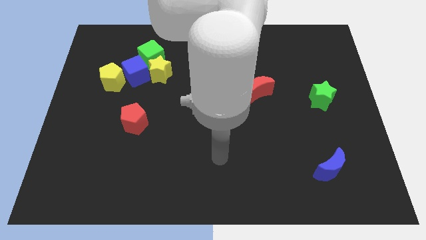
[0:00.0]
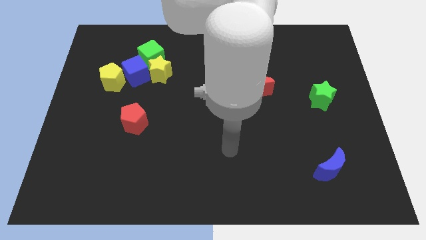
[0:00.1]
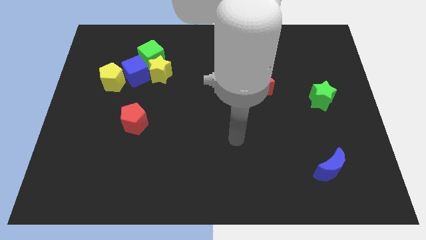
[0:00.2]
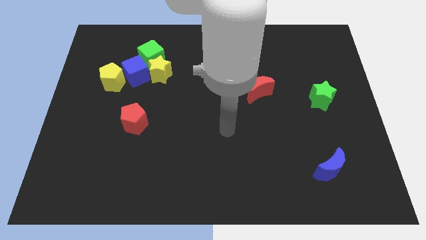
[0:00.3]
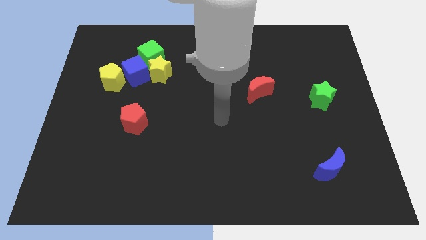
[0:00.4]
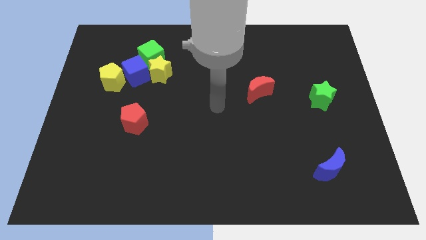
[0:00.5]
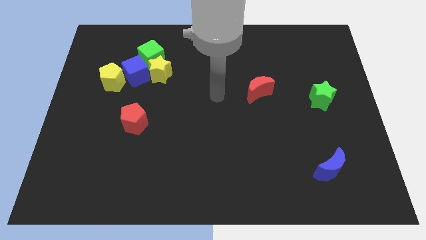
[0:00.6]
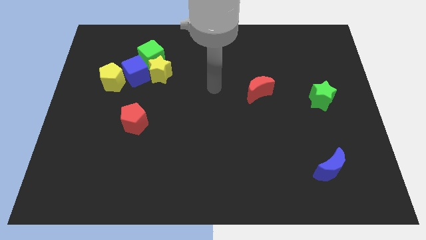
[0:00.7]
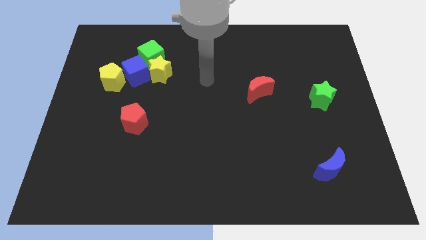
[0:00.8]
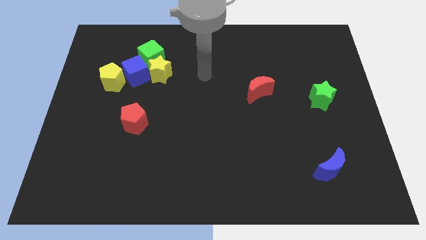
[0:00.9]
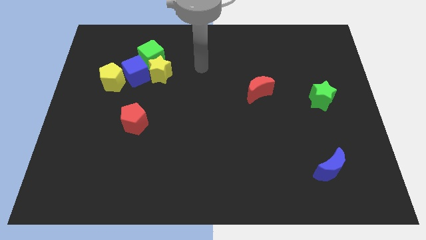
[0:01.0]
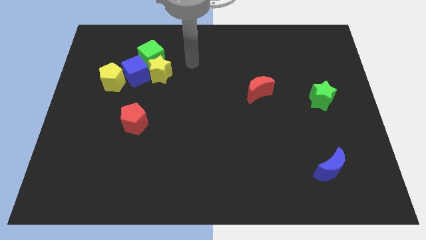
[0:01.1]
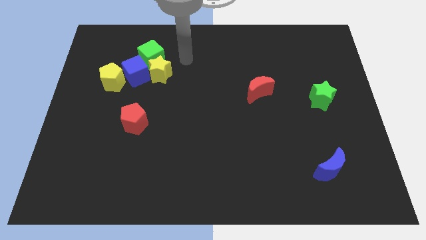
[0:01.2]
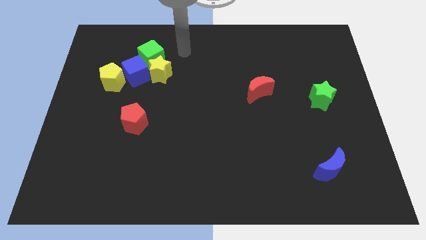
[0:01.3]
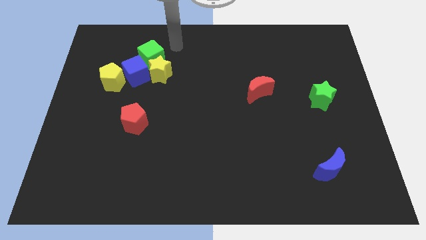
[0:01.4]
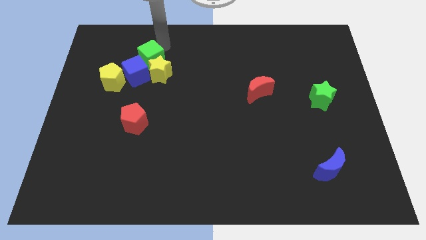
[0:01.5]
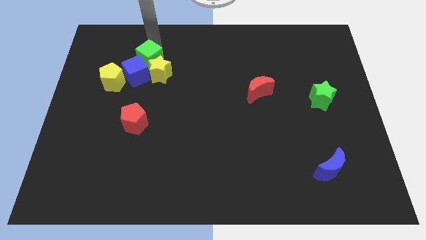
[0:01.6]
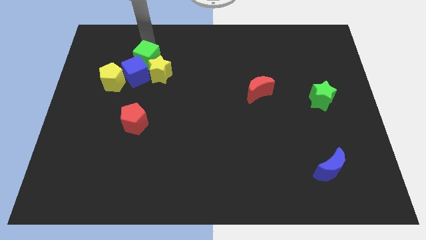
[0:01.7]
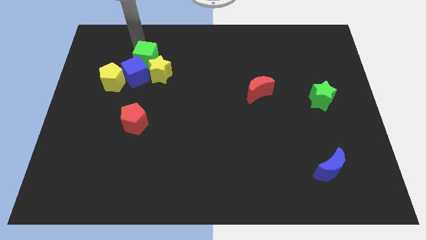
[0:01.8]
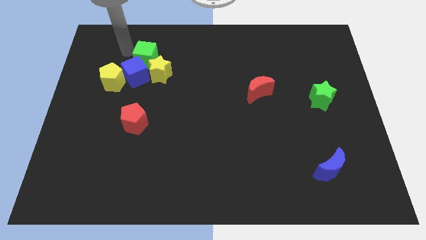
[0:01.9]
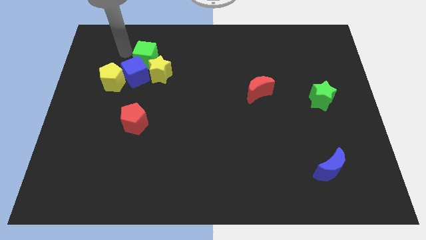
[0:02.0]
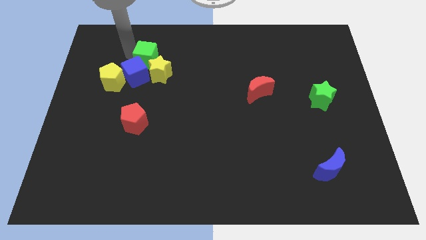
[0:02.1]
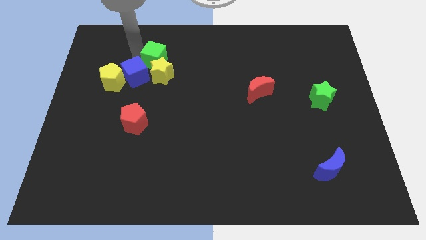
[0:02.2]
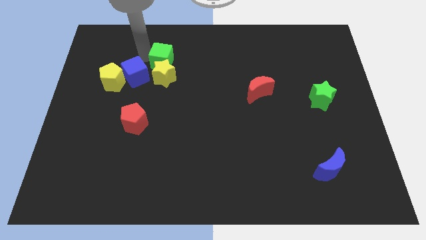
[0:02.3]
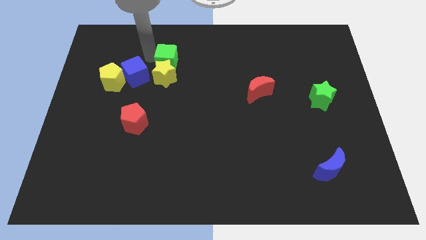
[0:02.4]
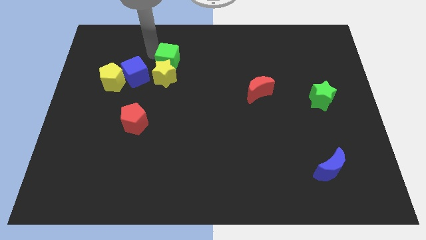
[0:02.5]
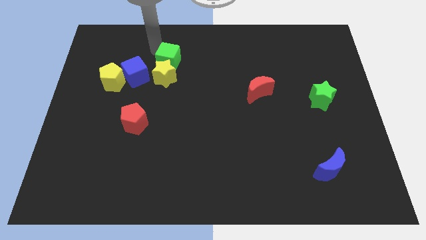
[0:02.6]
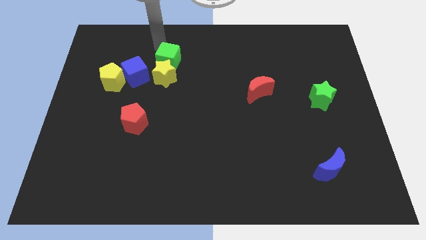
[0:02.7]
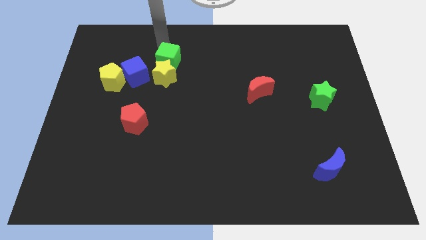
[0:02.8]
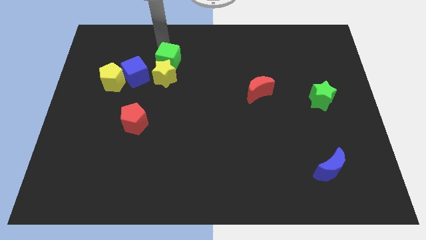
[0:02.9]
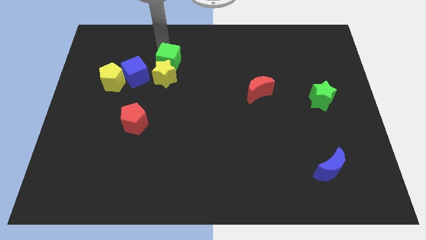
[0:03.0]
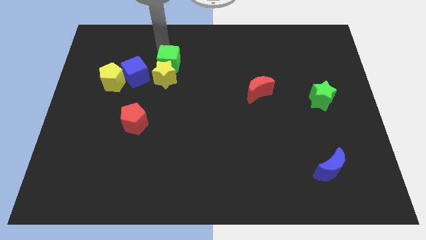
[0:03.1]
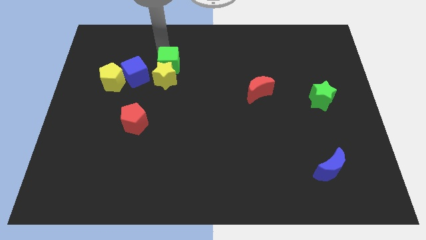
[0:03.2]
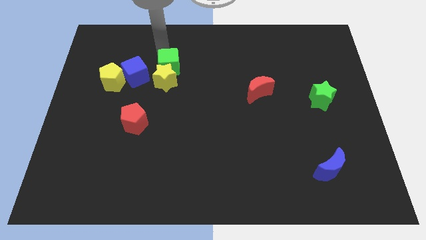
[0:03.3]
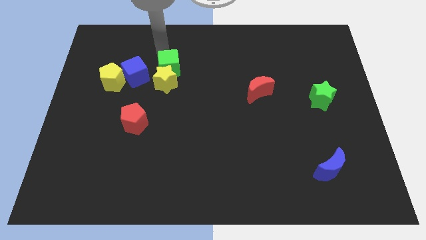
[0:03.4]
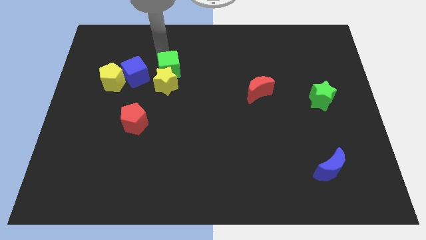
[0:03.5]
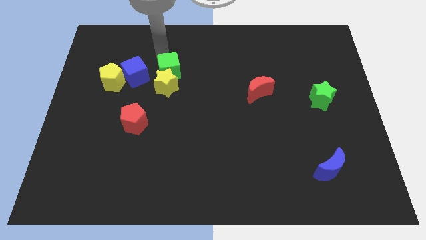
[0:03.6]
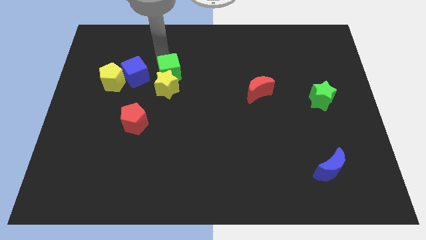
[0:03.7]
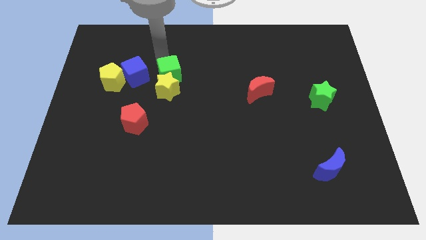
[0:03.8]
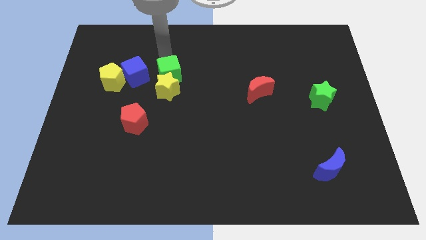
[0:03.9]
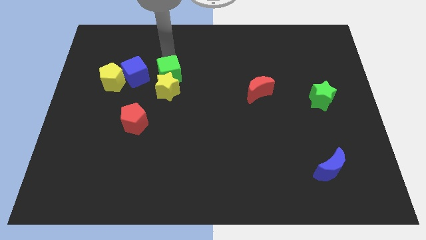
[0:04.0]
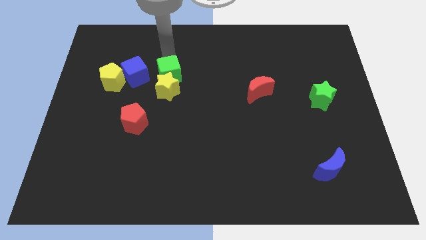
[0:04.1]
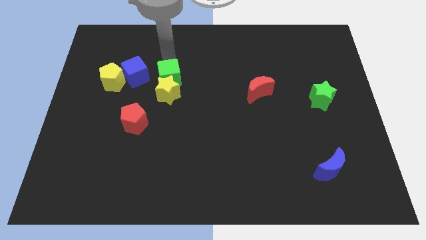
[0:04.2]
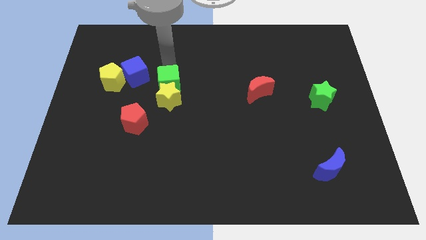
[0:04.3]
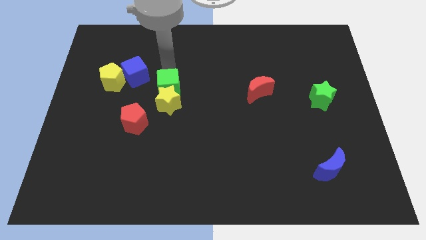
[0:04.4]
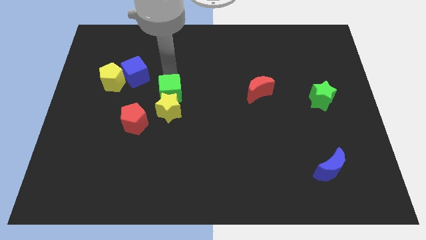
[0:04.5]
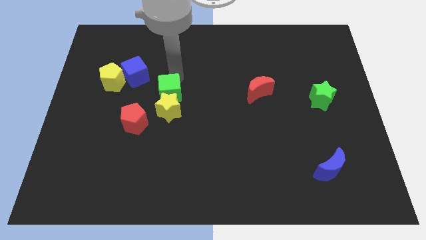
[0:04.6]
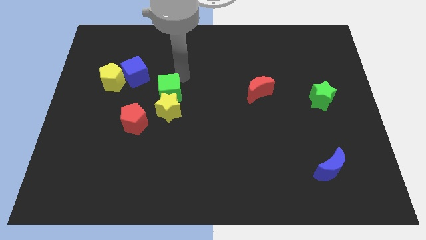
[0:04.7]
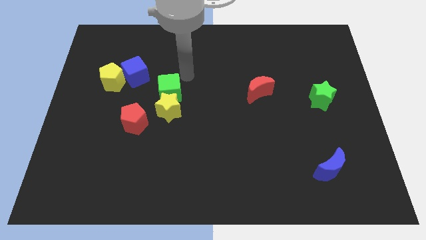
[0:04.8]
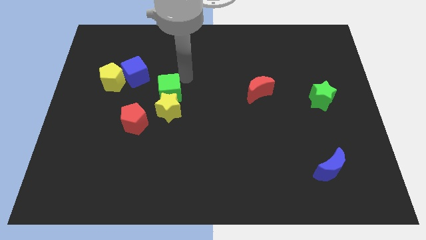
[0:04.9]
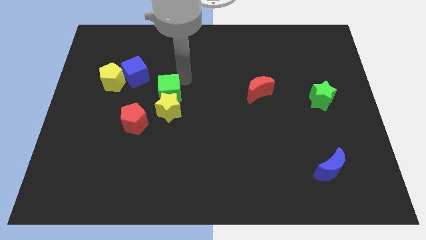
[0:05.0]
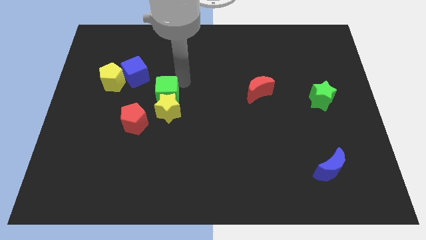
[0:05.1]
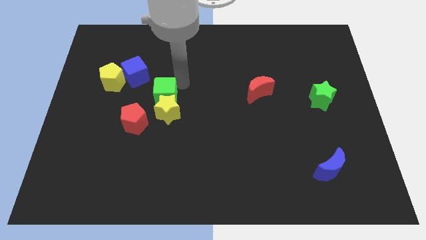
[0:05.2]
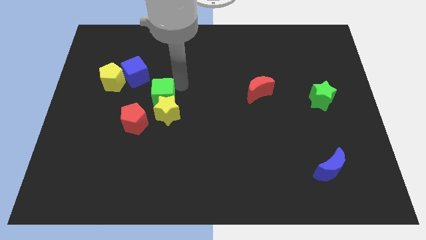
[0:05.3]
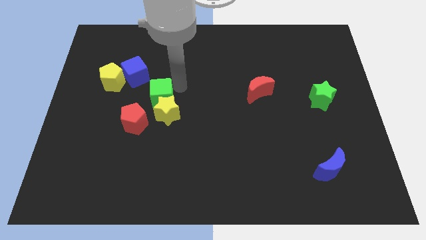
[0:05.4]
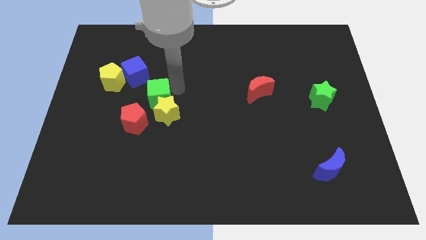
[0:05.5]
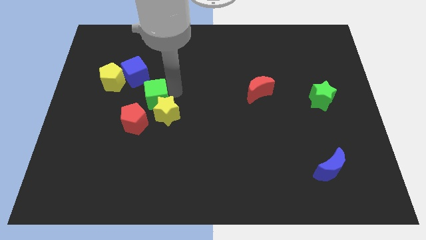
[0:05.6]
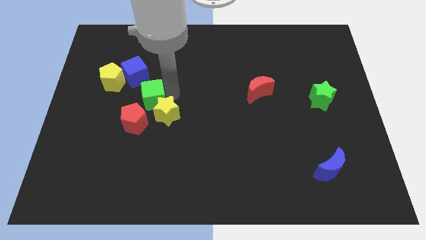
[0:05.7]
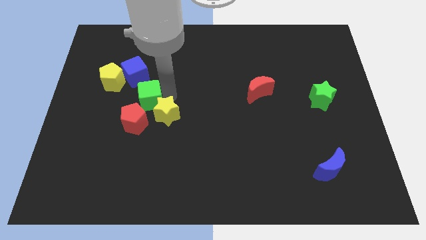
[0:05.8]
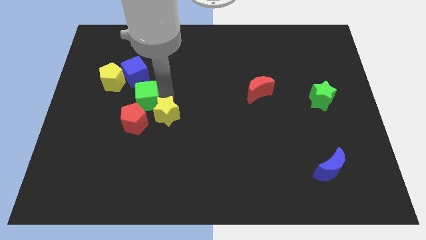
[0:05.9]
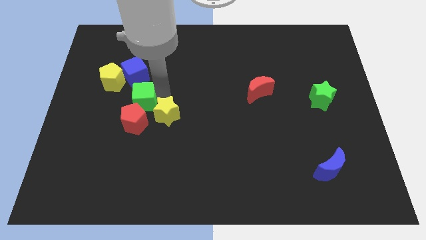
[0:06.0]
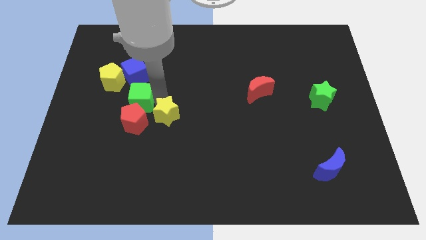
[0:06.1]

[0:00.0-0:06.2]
slide the green cube to the red pentagon

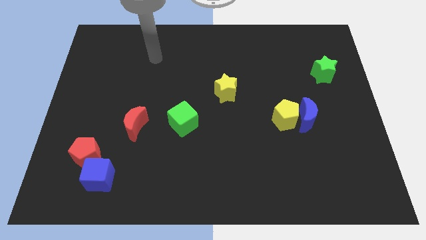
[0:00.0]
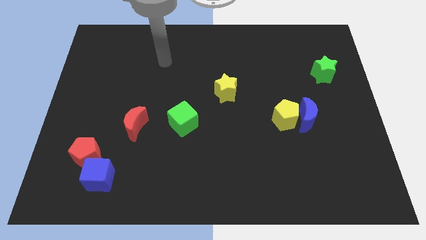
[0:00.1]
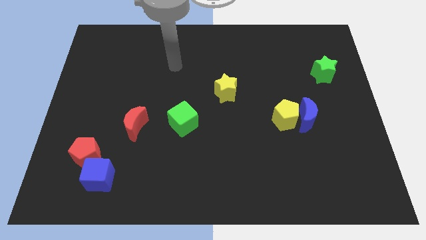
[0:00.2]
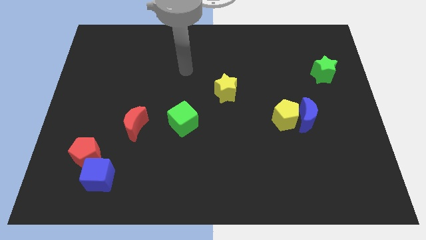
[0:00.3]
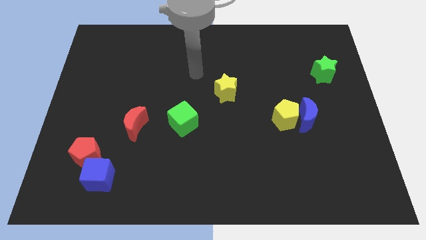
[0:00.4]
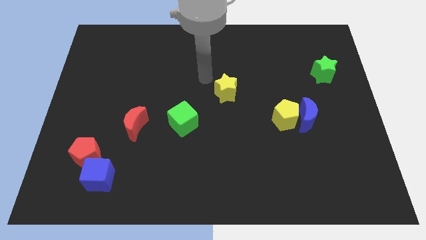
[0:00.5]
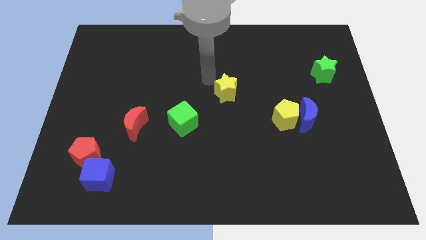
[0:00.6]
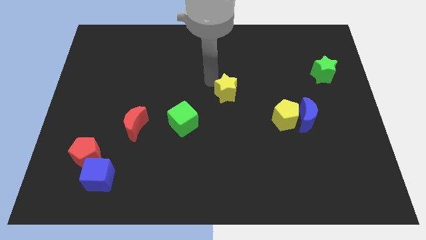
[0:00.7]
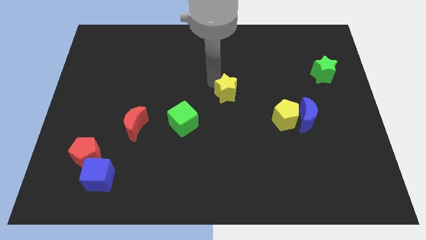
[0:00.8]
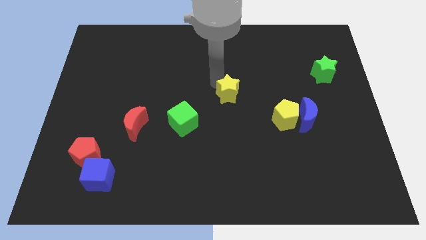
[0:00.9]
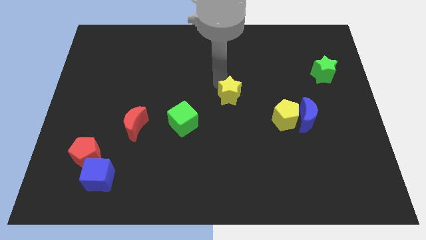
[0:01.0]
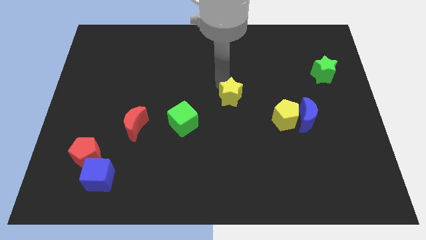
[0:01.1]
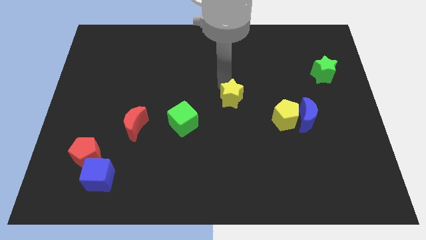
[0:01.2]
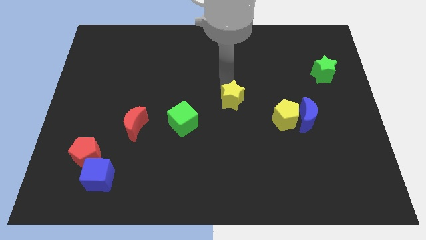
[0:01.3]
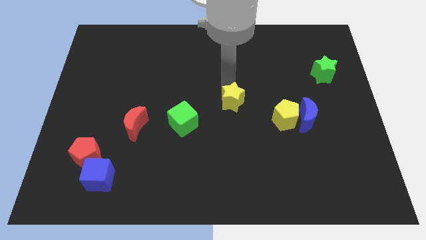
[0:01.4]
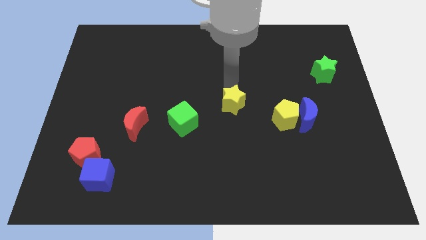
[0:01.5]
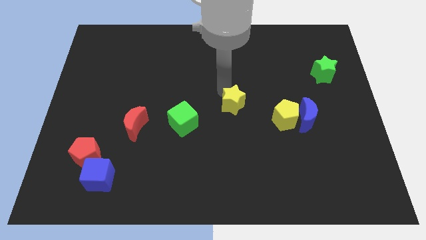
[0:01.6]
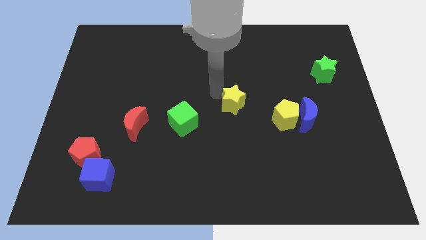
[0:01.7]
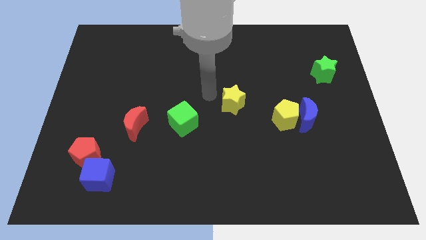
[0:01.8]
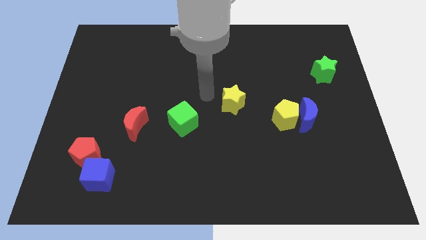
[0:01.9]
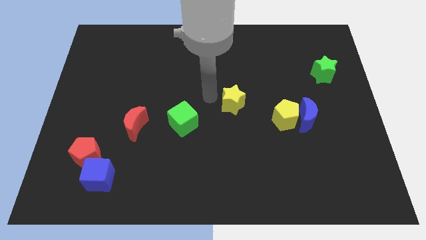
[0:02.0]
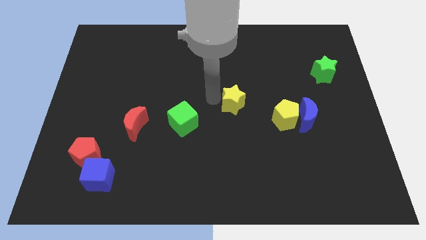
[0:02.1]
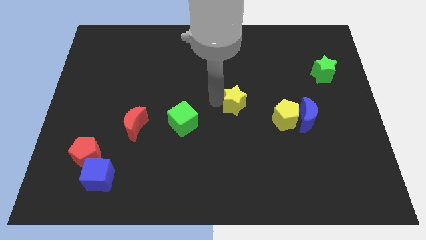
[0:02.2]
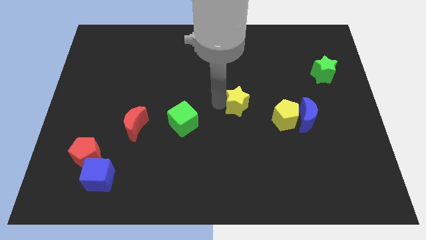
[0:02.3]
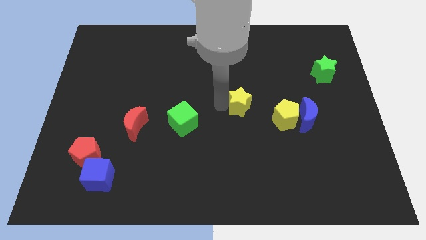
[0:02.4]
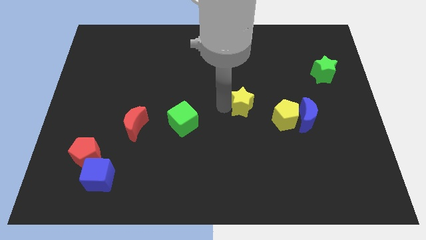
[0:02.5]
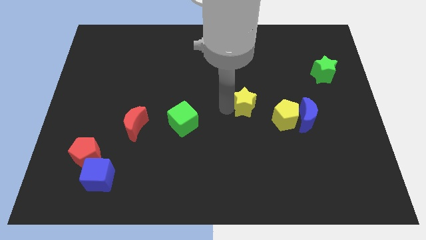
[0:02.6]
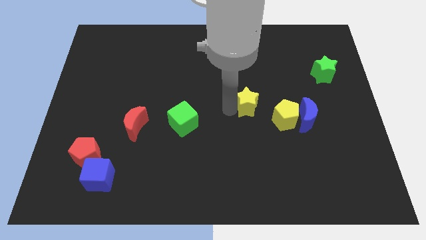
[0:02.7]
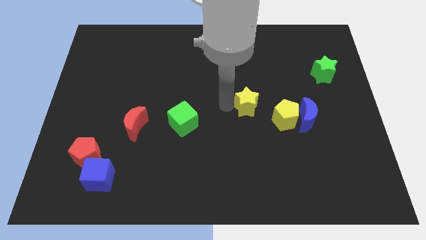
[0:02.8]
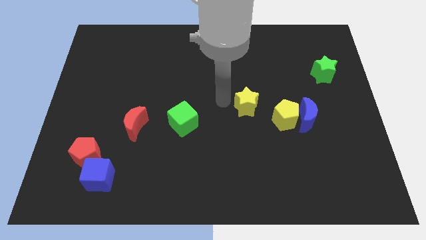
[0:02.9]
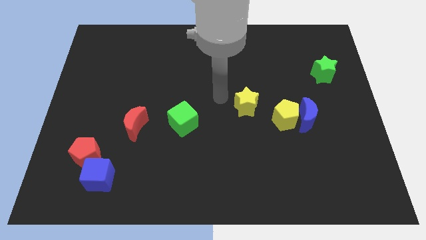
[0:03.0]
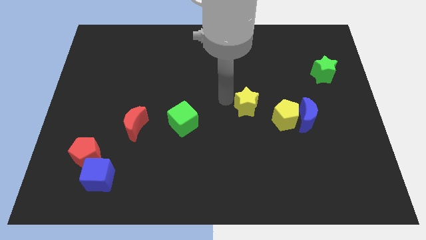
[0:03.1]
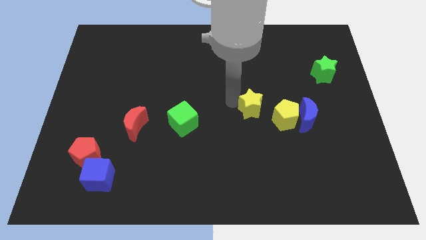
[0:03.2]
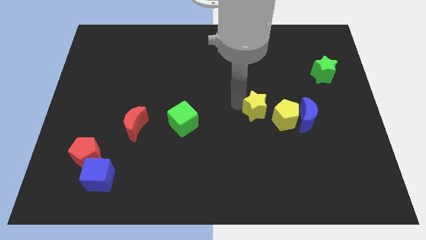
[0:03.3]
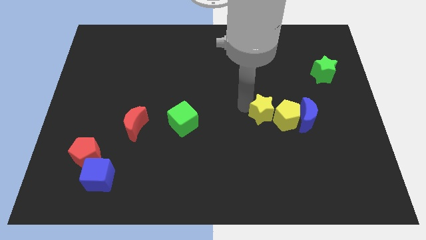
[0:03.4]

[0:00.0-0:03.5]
push the yellow star to the yellow pentagon
